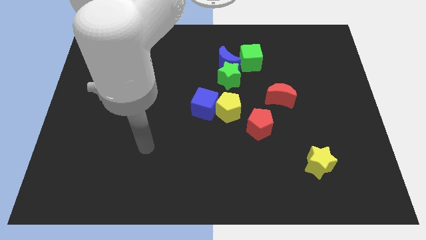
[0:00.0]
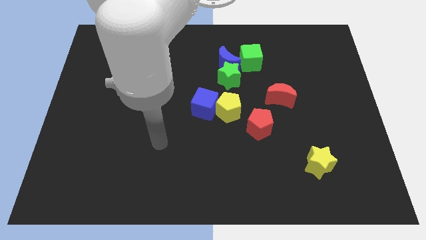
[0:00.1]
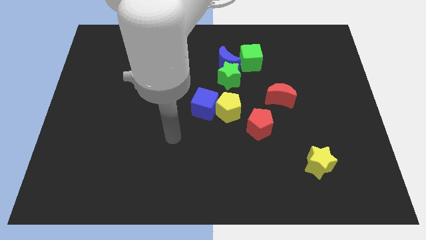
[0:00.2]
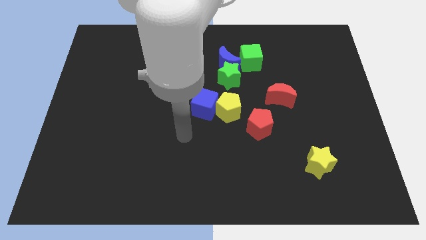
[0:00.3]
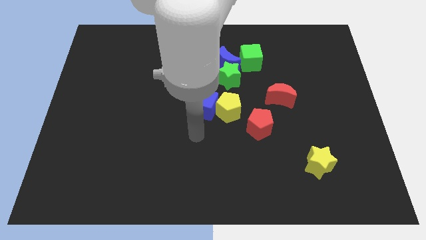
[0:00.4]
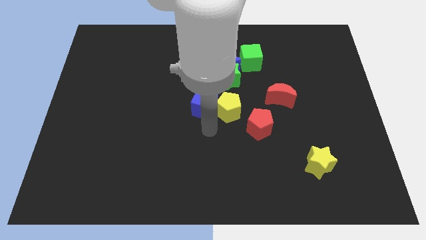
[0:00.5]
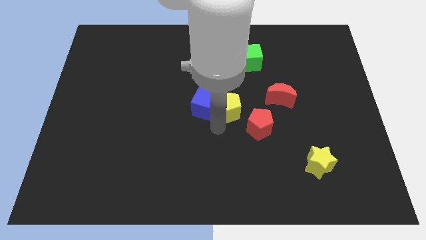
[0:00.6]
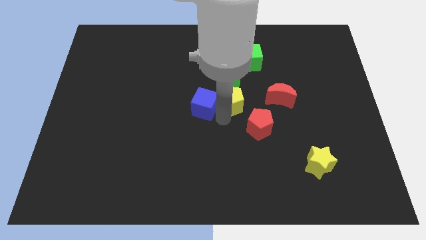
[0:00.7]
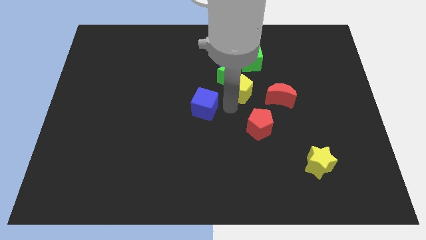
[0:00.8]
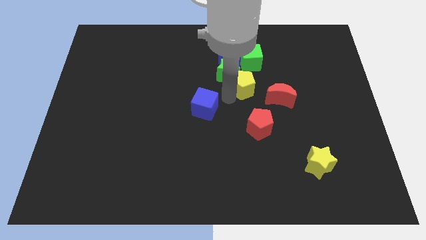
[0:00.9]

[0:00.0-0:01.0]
move the blue cube away from the yellow pentagon

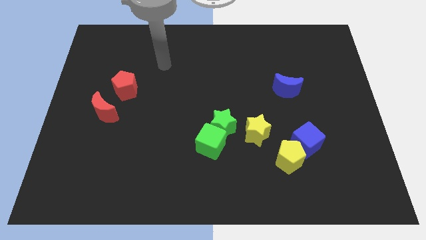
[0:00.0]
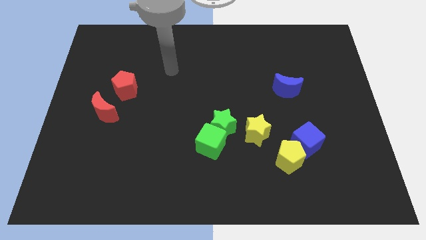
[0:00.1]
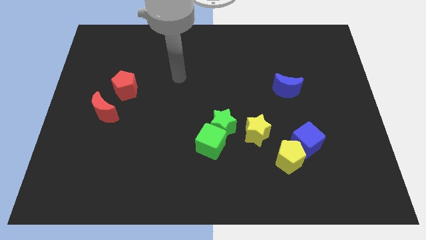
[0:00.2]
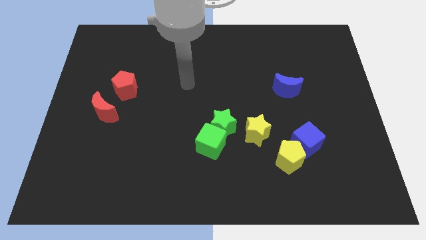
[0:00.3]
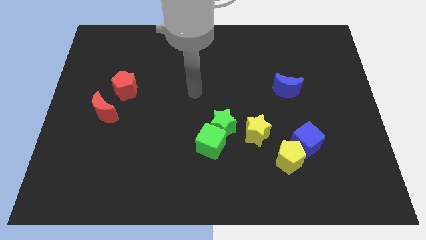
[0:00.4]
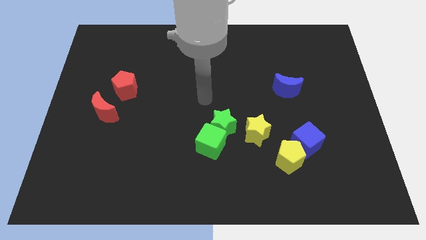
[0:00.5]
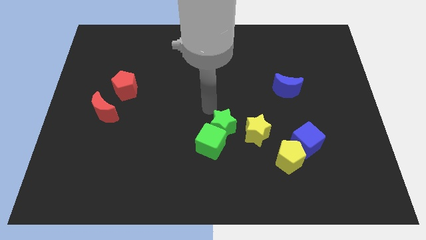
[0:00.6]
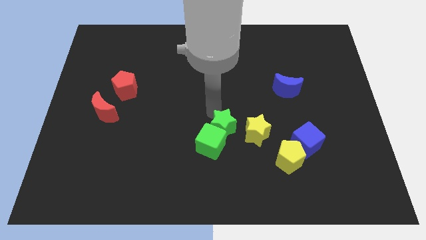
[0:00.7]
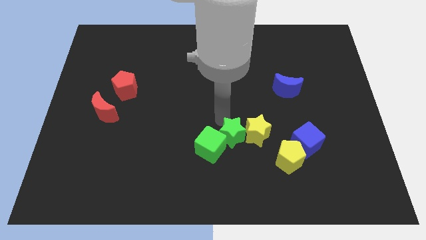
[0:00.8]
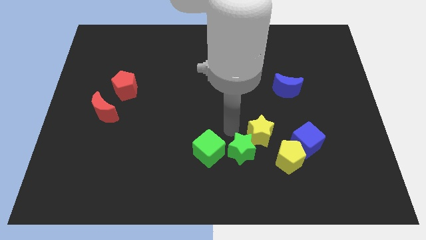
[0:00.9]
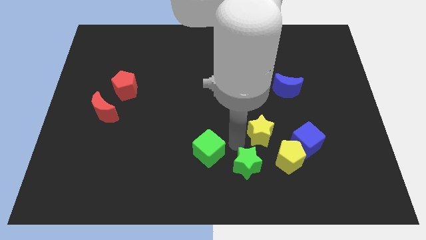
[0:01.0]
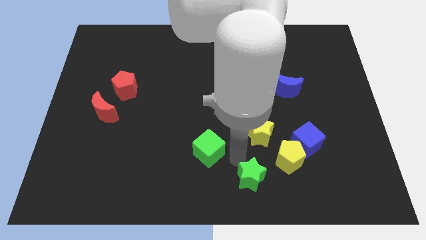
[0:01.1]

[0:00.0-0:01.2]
separate the green cube from the green star

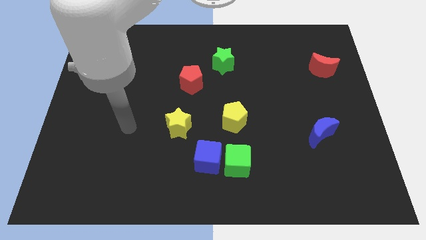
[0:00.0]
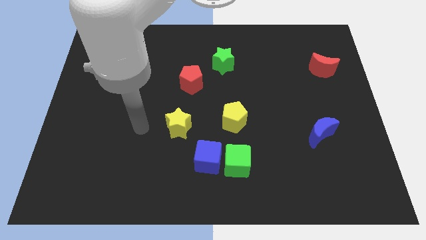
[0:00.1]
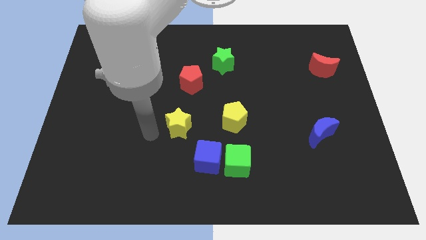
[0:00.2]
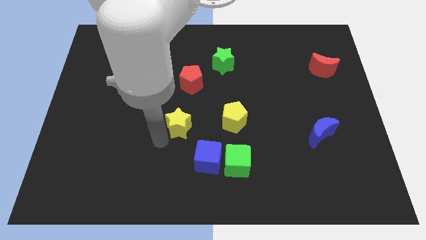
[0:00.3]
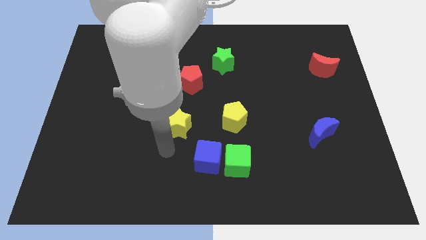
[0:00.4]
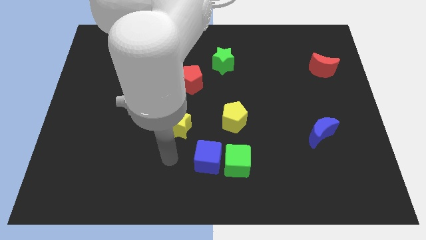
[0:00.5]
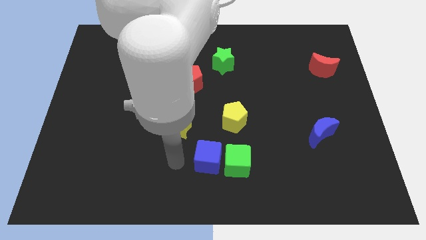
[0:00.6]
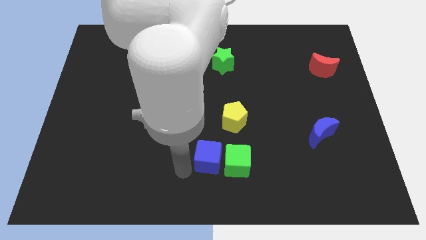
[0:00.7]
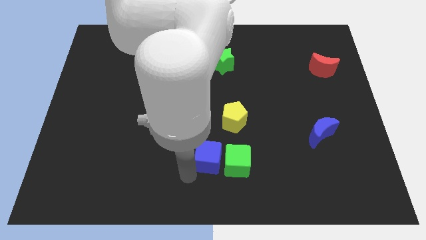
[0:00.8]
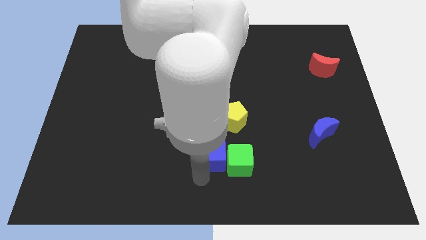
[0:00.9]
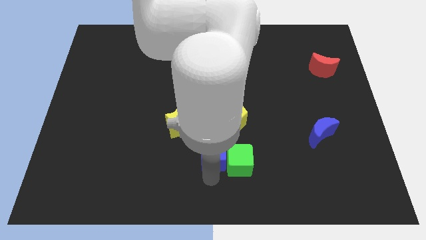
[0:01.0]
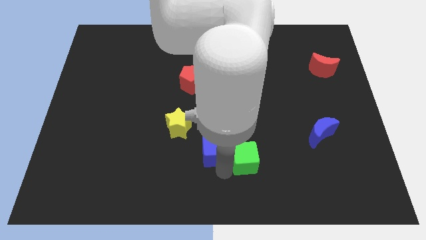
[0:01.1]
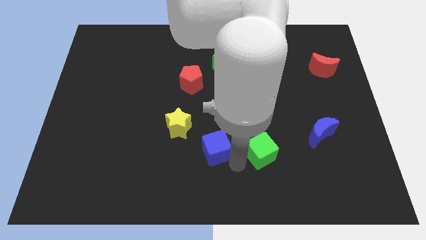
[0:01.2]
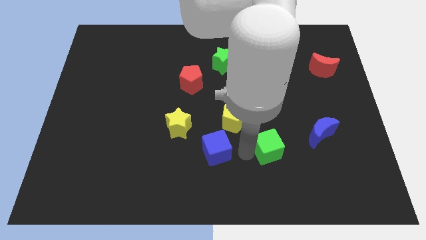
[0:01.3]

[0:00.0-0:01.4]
move the blue cube away from the green cube

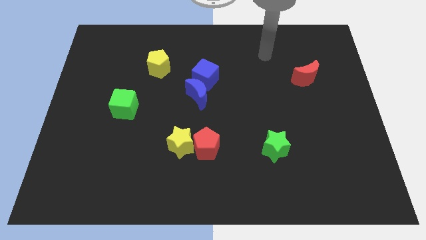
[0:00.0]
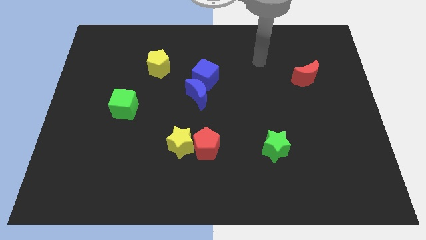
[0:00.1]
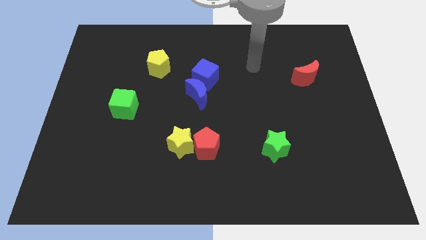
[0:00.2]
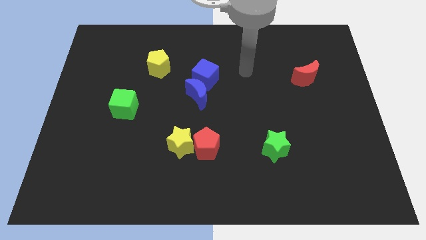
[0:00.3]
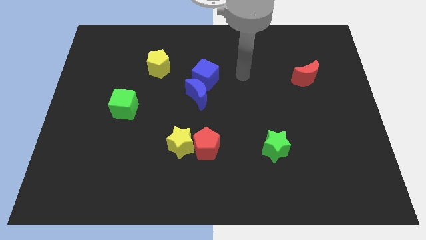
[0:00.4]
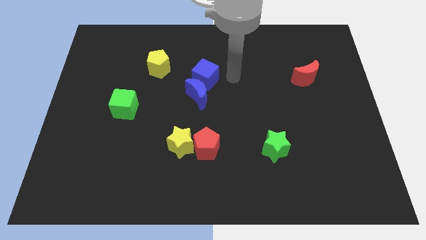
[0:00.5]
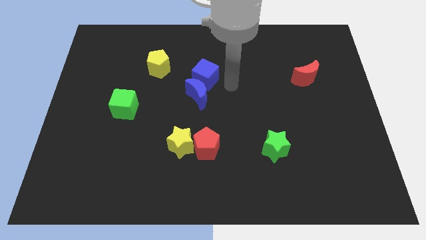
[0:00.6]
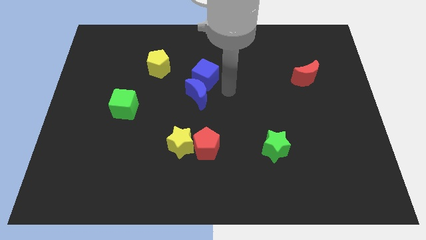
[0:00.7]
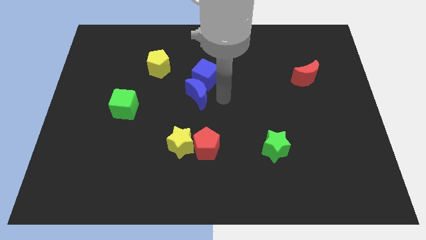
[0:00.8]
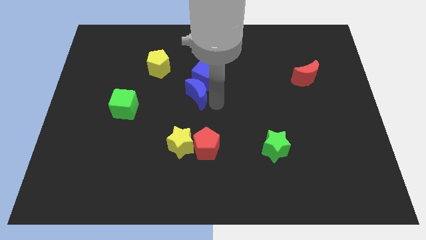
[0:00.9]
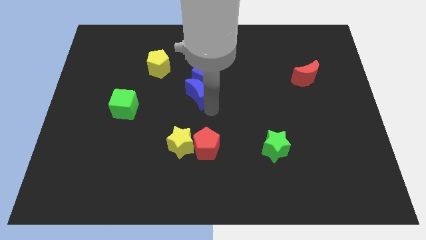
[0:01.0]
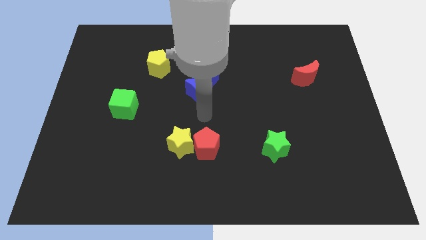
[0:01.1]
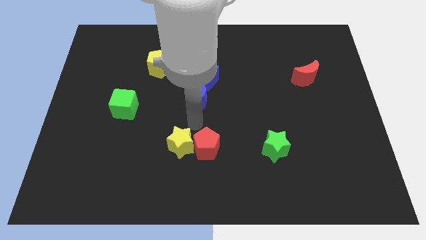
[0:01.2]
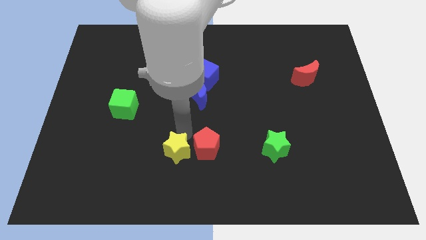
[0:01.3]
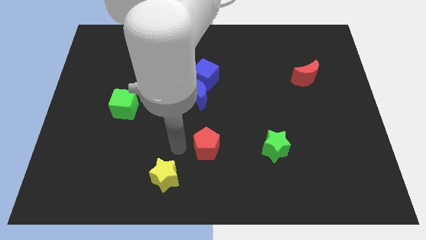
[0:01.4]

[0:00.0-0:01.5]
move the red pentagon away from the yellow star

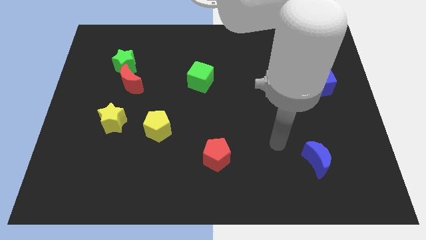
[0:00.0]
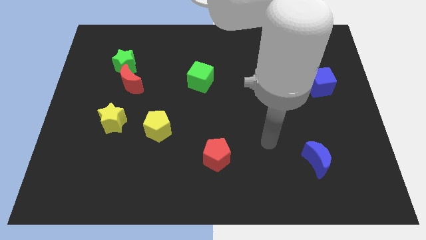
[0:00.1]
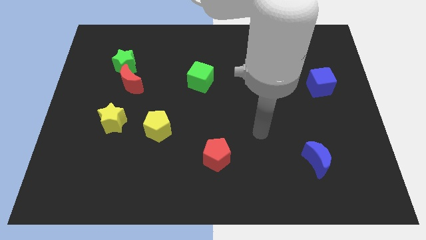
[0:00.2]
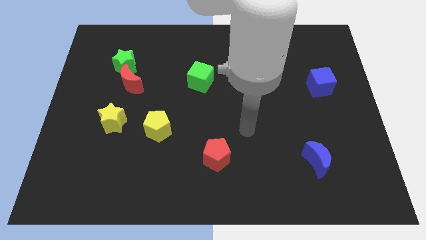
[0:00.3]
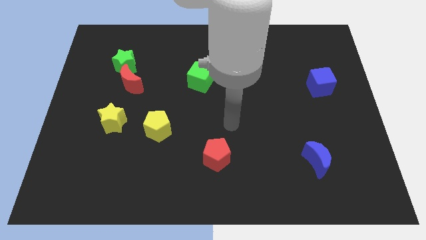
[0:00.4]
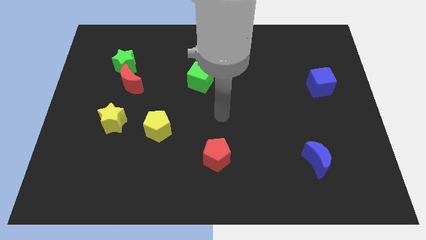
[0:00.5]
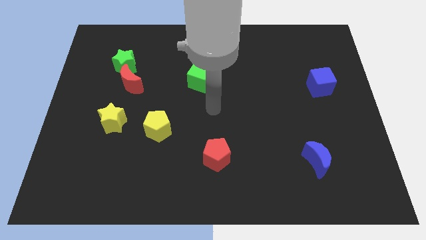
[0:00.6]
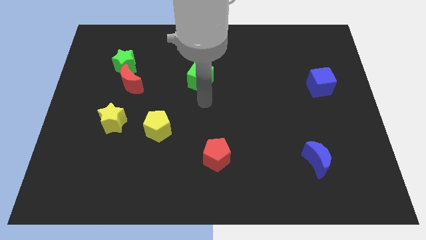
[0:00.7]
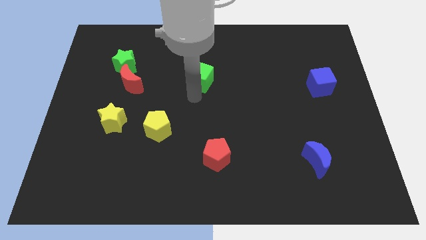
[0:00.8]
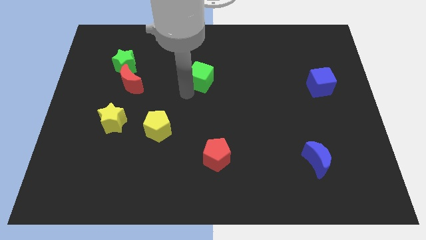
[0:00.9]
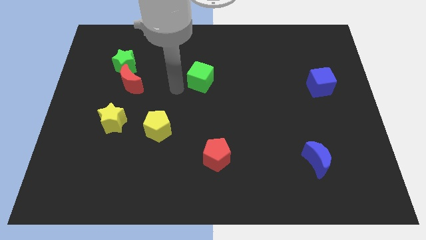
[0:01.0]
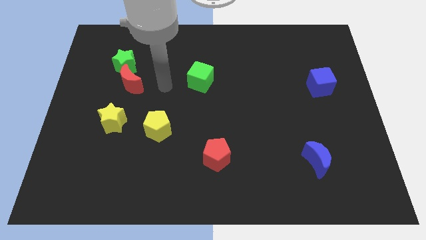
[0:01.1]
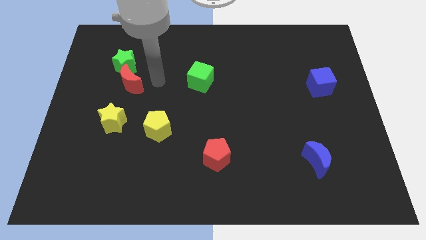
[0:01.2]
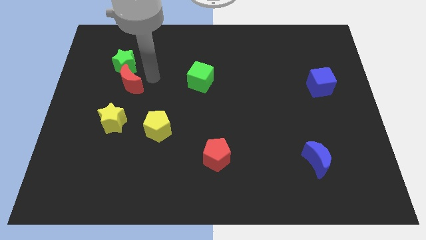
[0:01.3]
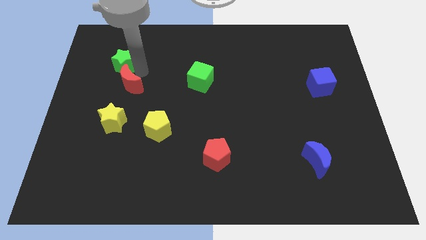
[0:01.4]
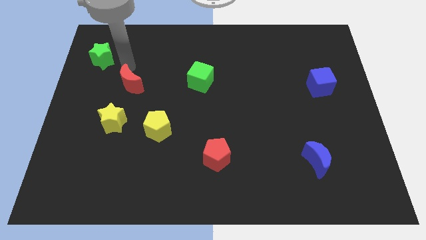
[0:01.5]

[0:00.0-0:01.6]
separate the red moon from the green star

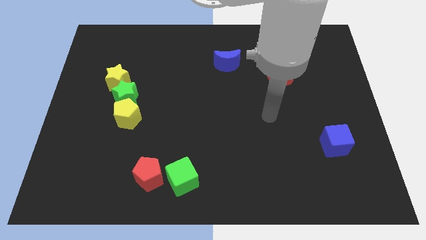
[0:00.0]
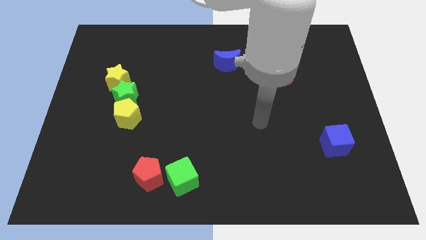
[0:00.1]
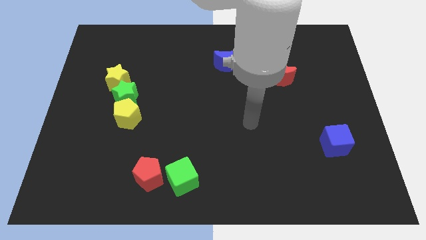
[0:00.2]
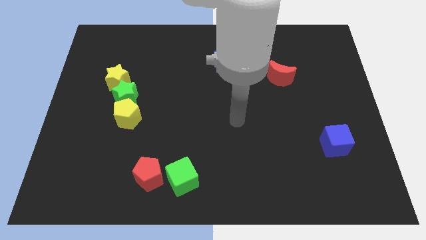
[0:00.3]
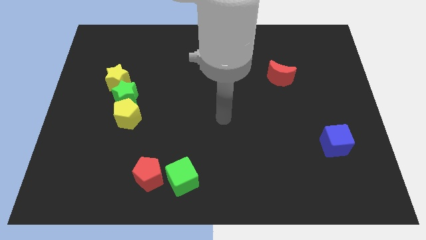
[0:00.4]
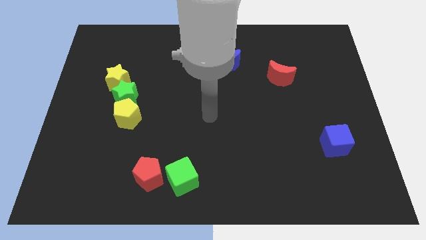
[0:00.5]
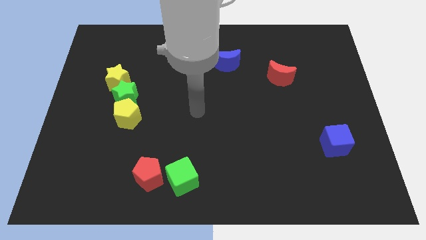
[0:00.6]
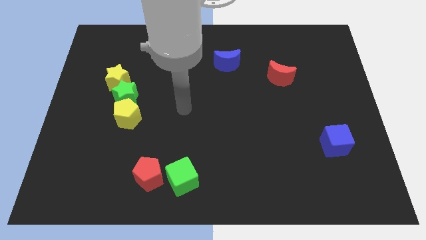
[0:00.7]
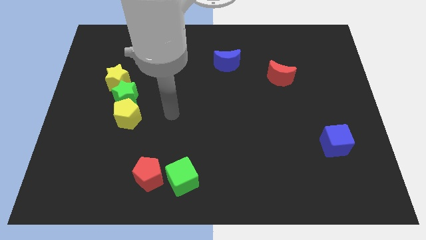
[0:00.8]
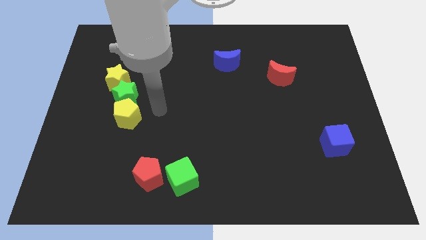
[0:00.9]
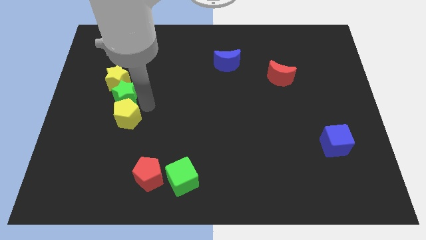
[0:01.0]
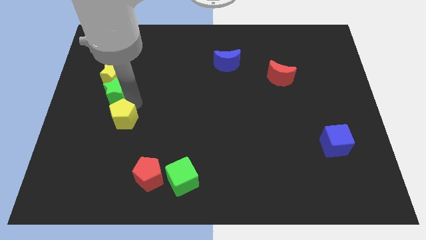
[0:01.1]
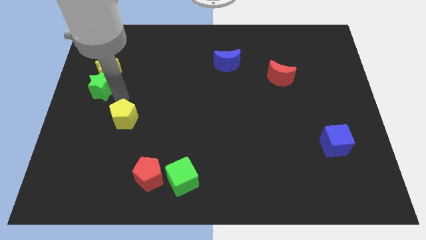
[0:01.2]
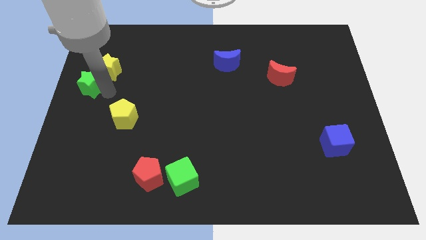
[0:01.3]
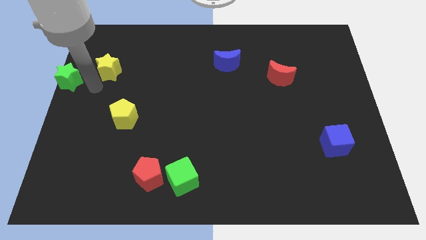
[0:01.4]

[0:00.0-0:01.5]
pull the yellow star apart from the green star

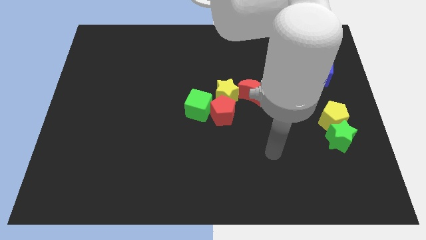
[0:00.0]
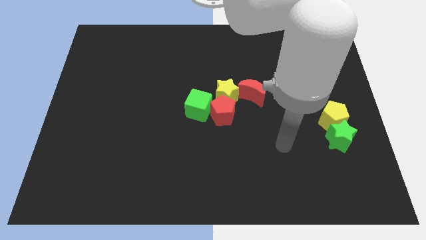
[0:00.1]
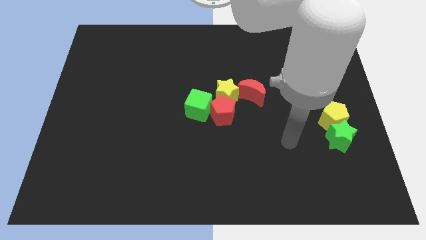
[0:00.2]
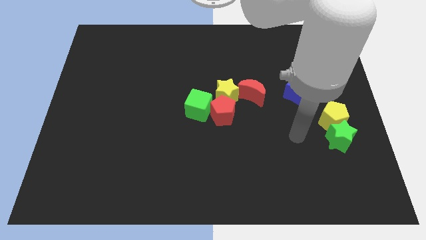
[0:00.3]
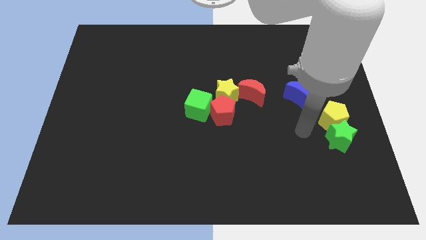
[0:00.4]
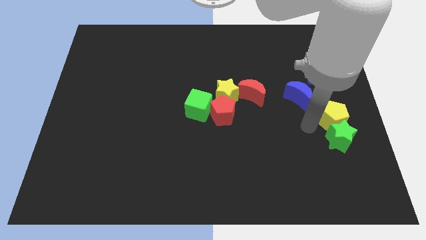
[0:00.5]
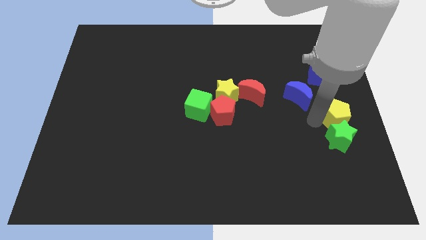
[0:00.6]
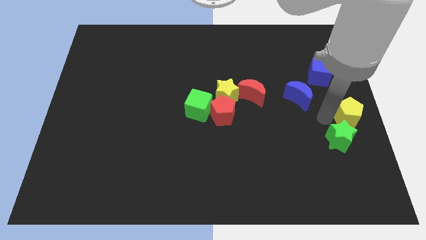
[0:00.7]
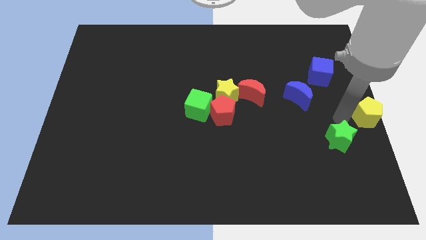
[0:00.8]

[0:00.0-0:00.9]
separate the green star from the yellow pentagon

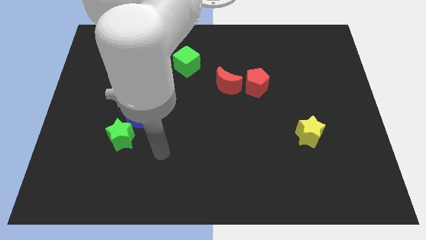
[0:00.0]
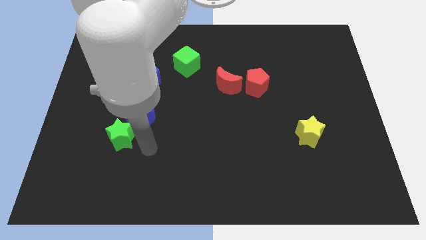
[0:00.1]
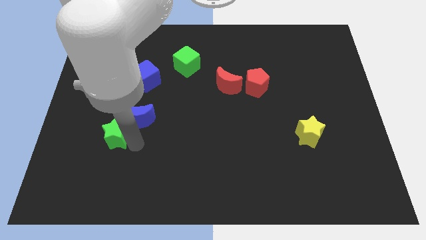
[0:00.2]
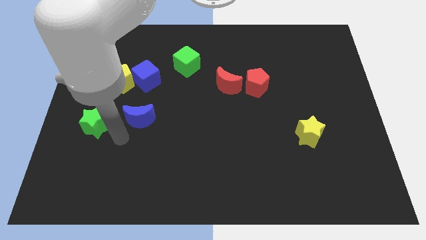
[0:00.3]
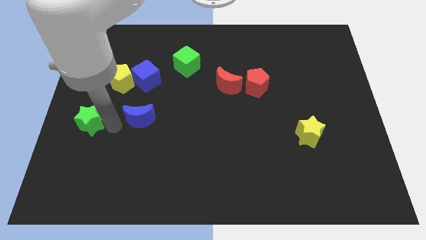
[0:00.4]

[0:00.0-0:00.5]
move the blue moon away from the green star
